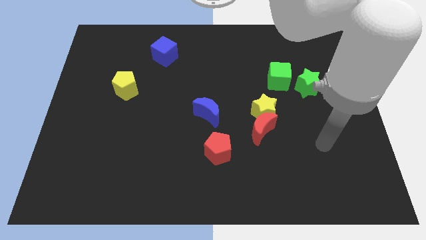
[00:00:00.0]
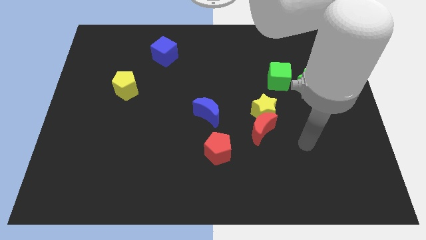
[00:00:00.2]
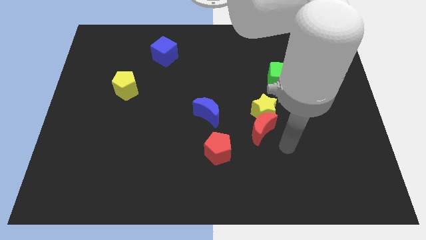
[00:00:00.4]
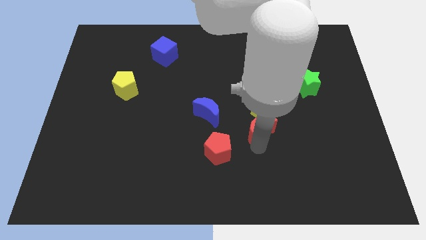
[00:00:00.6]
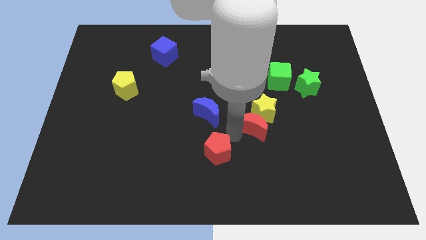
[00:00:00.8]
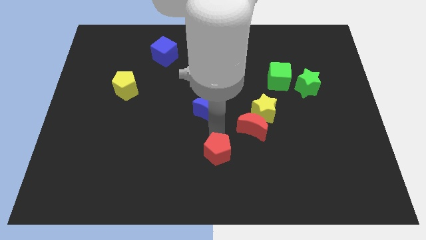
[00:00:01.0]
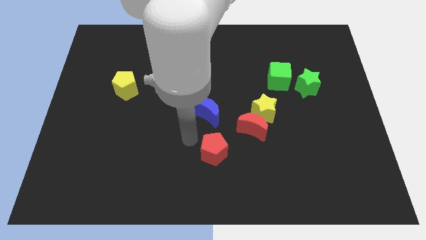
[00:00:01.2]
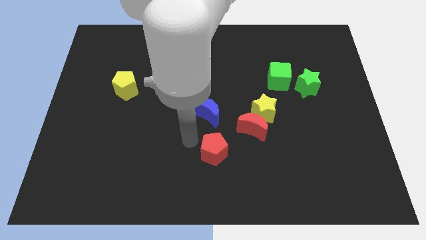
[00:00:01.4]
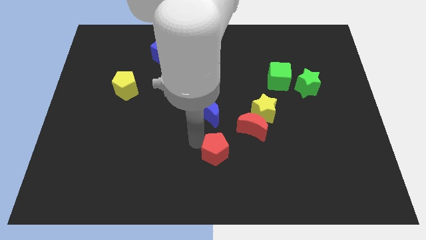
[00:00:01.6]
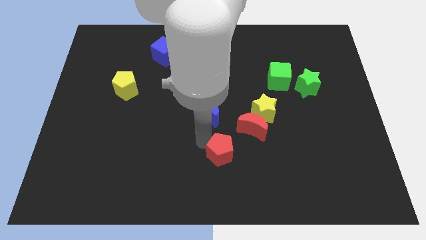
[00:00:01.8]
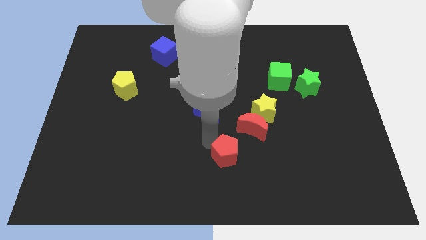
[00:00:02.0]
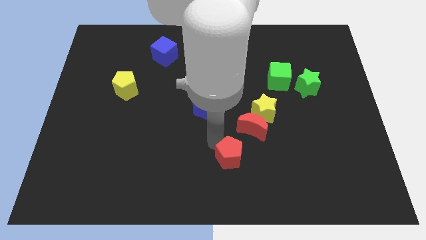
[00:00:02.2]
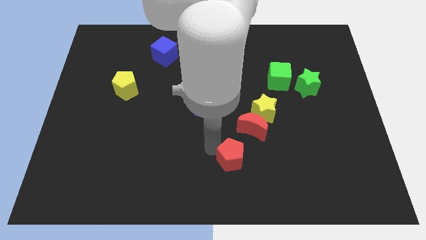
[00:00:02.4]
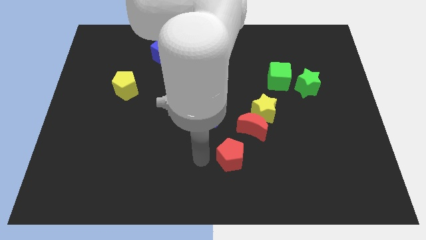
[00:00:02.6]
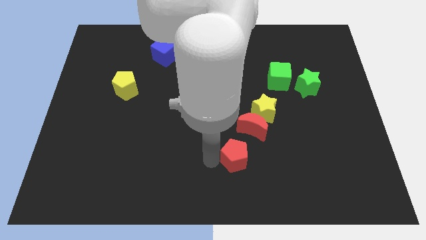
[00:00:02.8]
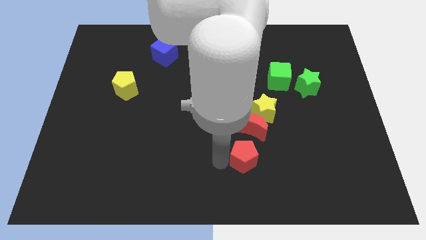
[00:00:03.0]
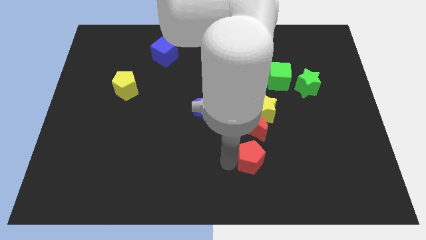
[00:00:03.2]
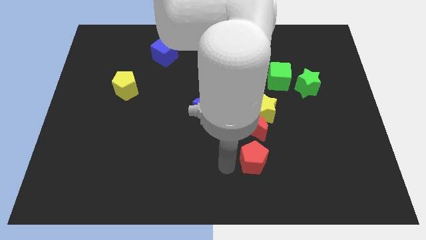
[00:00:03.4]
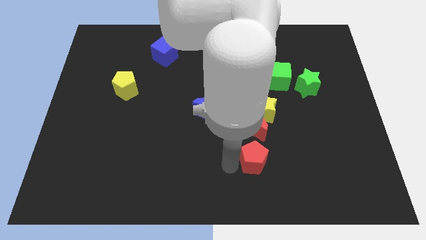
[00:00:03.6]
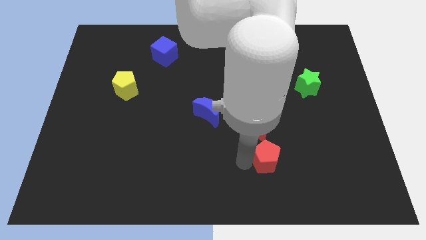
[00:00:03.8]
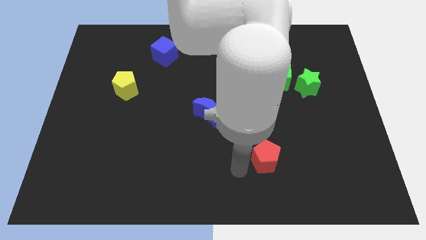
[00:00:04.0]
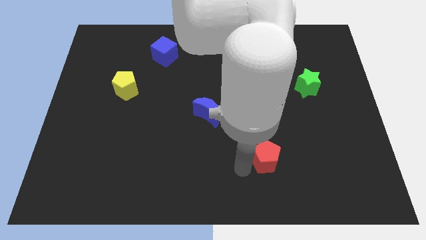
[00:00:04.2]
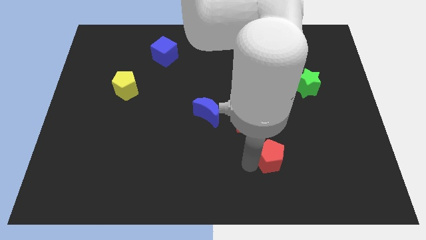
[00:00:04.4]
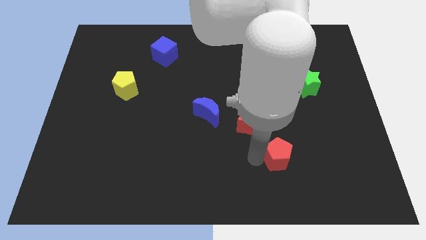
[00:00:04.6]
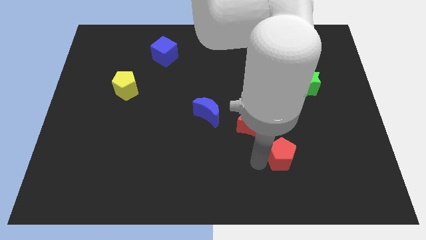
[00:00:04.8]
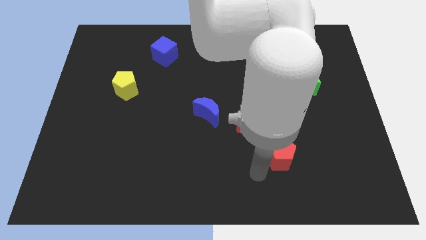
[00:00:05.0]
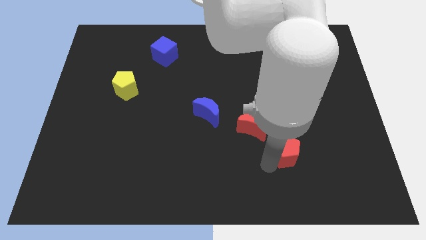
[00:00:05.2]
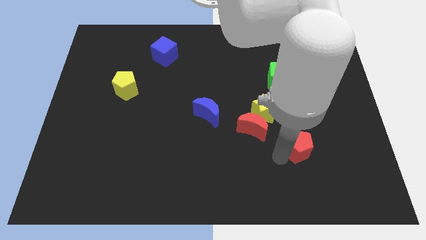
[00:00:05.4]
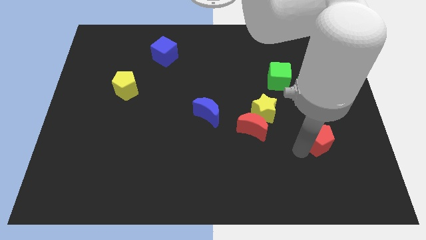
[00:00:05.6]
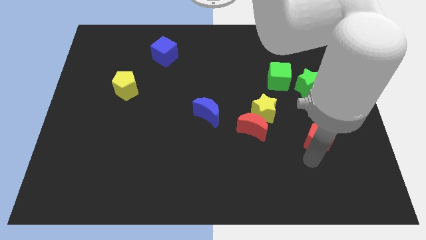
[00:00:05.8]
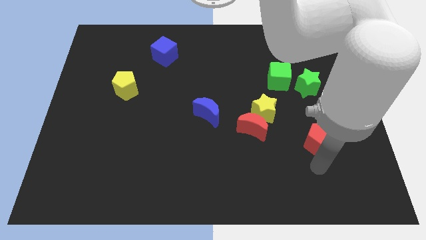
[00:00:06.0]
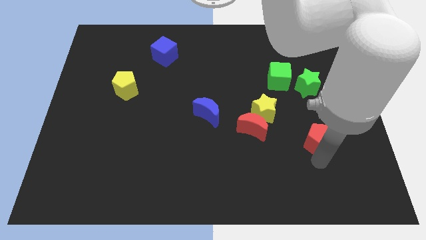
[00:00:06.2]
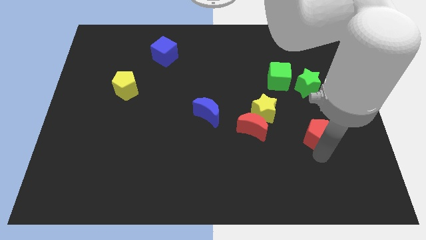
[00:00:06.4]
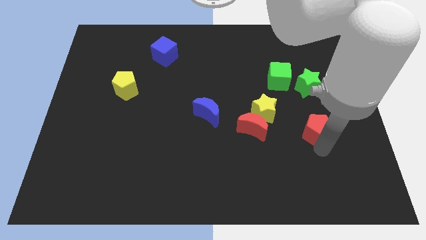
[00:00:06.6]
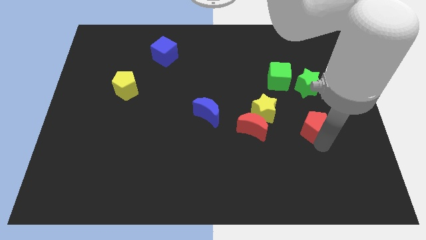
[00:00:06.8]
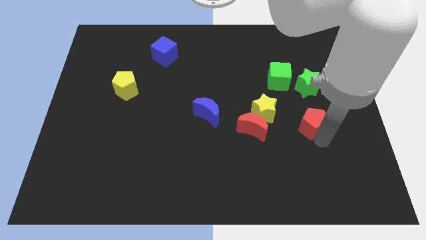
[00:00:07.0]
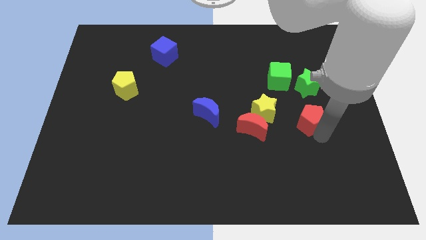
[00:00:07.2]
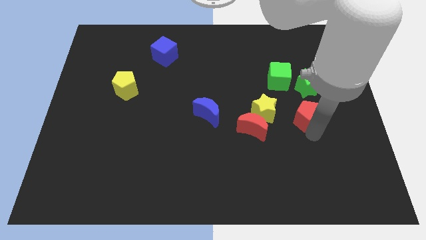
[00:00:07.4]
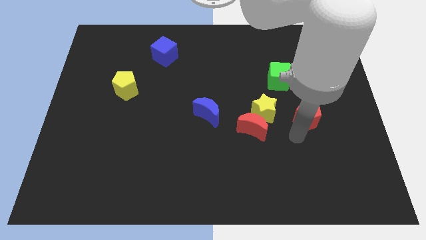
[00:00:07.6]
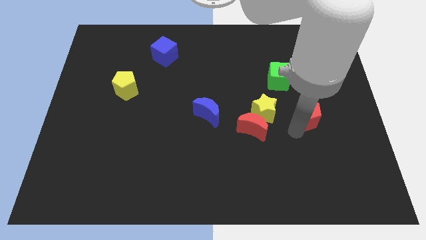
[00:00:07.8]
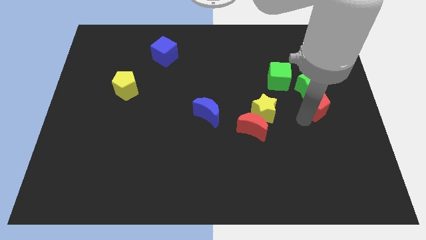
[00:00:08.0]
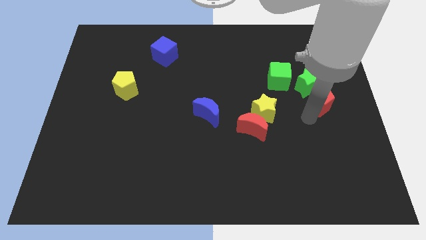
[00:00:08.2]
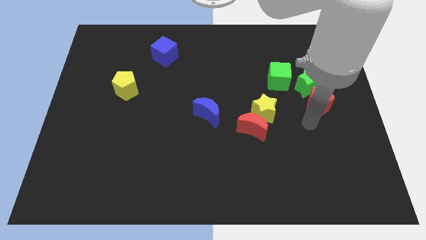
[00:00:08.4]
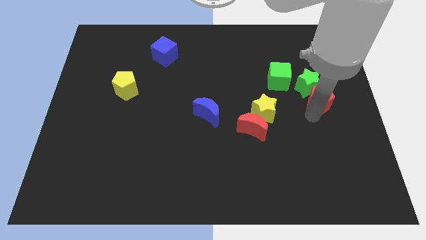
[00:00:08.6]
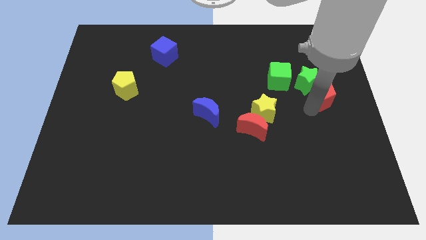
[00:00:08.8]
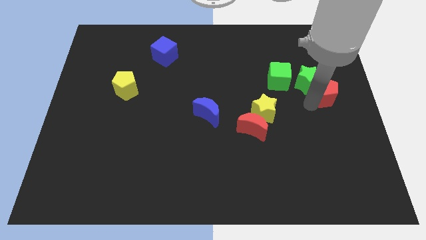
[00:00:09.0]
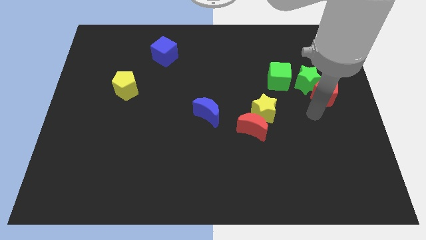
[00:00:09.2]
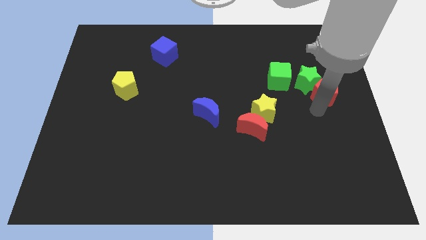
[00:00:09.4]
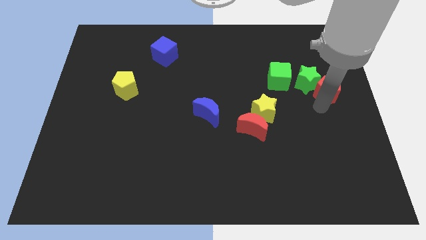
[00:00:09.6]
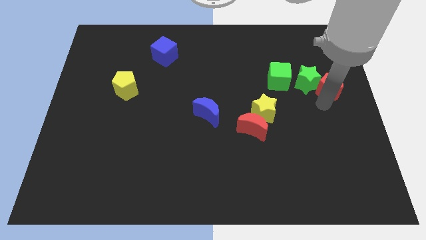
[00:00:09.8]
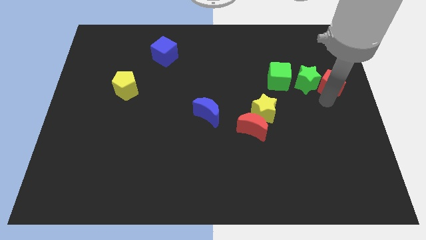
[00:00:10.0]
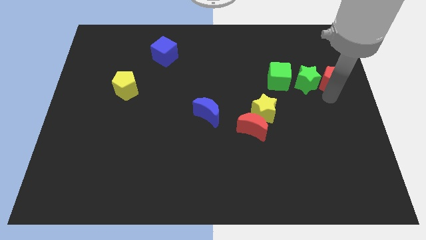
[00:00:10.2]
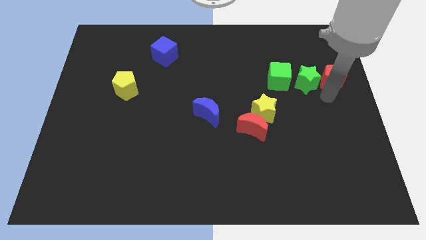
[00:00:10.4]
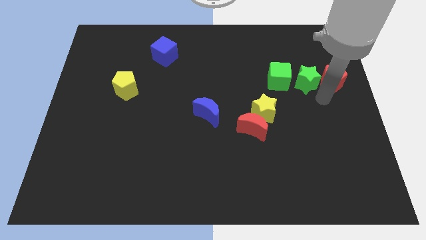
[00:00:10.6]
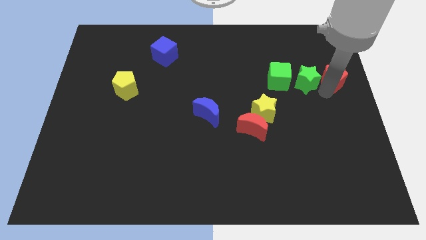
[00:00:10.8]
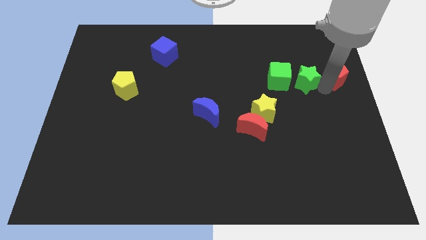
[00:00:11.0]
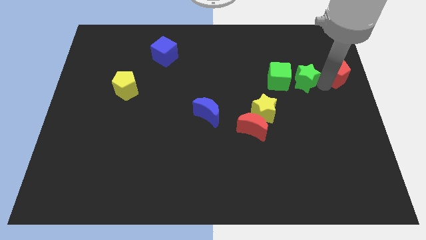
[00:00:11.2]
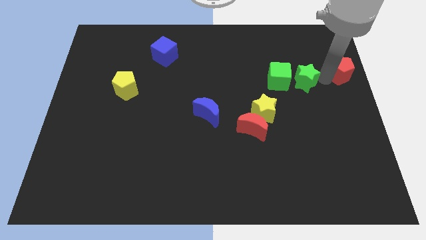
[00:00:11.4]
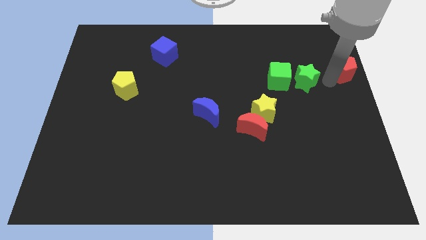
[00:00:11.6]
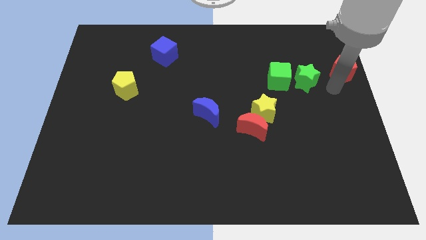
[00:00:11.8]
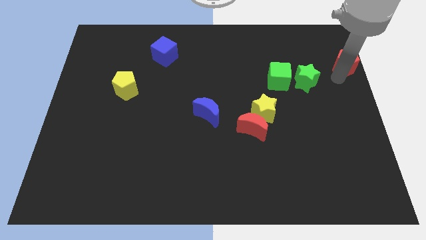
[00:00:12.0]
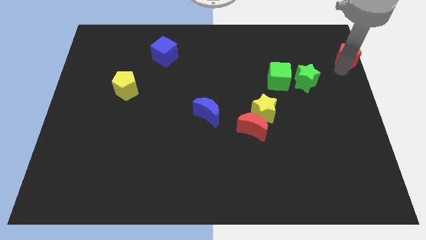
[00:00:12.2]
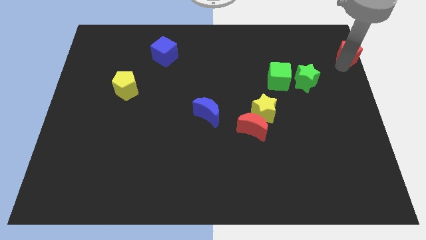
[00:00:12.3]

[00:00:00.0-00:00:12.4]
move the red pentagon to the top right of the board

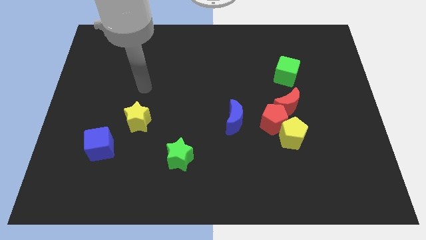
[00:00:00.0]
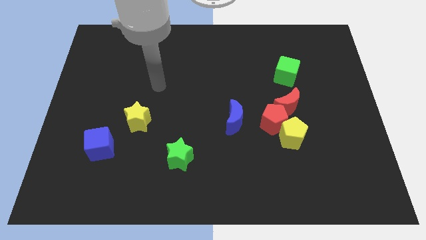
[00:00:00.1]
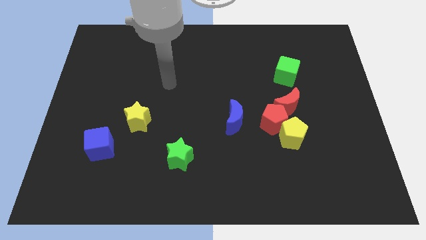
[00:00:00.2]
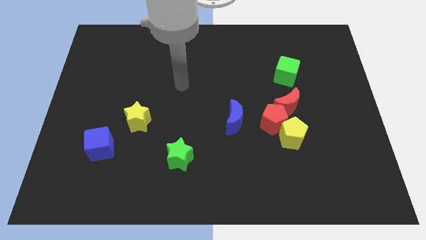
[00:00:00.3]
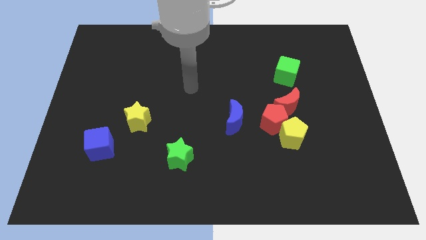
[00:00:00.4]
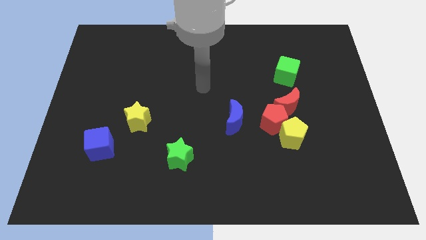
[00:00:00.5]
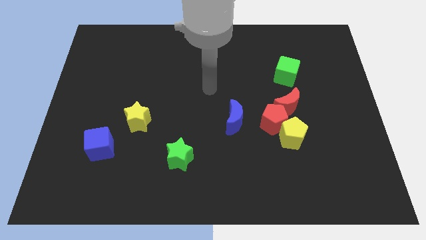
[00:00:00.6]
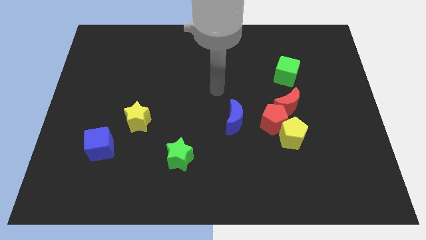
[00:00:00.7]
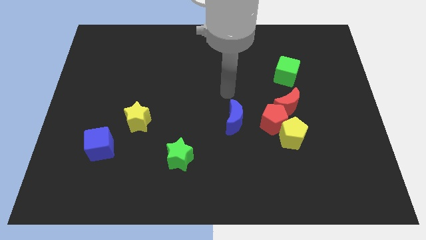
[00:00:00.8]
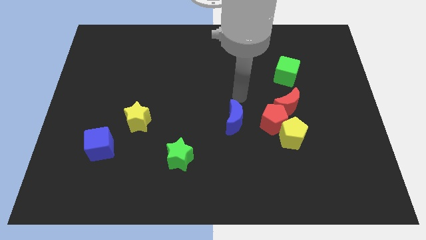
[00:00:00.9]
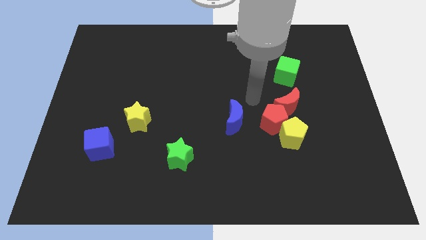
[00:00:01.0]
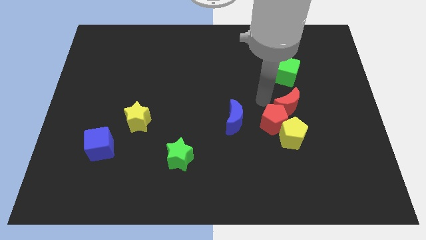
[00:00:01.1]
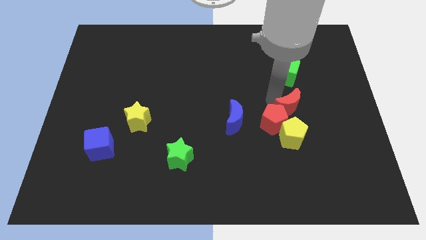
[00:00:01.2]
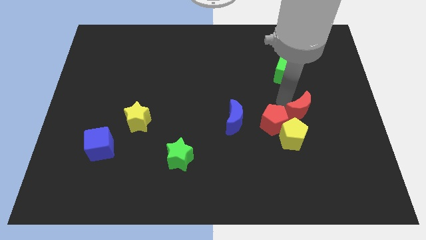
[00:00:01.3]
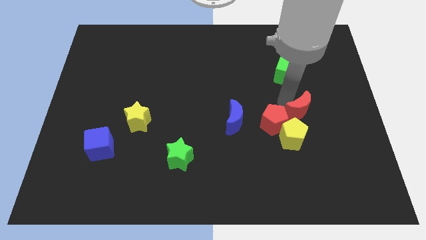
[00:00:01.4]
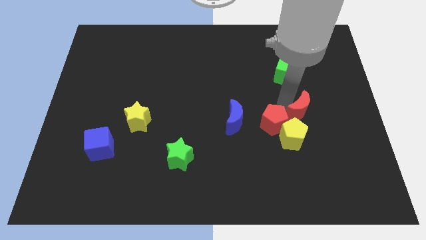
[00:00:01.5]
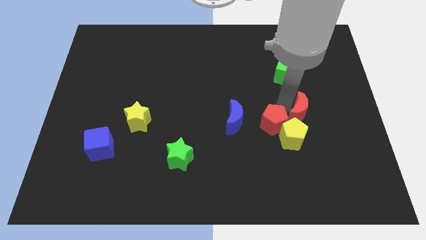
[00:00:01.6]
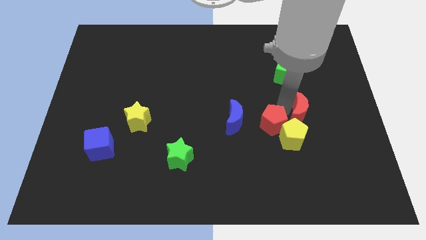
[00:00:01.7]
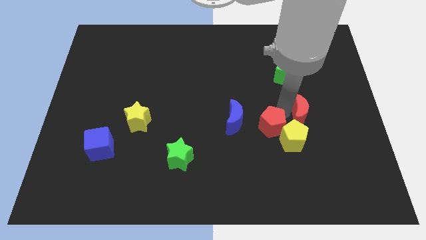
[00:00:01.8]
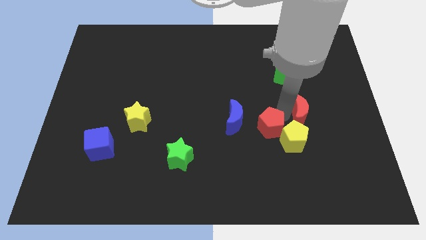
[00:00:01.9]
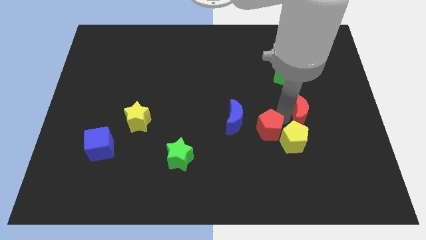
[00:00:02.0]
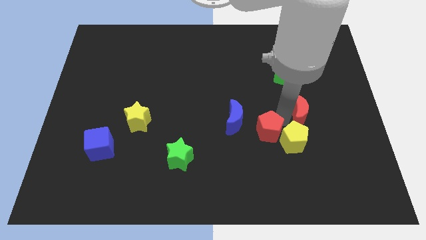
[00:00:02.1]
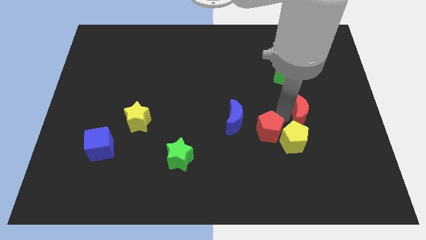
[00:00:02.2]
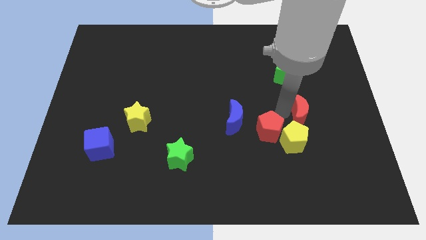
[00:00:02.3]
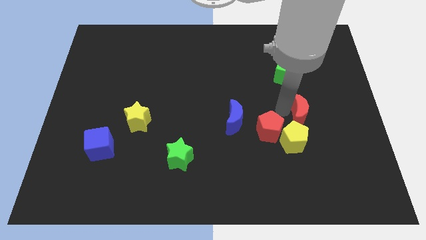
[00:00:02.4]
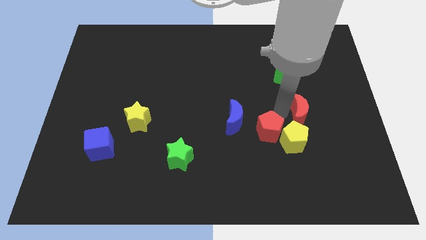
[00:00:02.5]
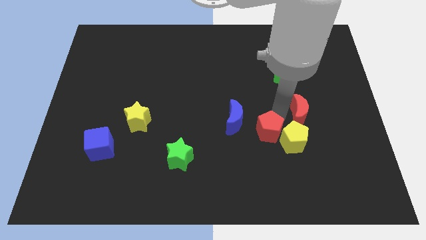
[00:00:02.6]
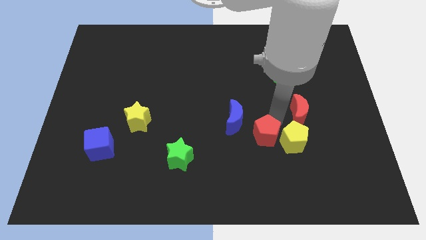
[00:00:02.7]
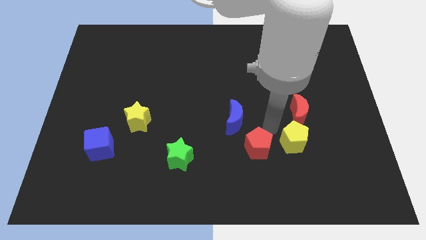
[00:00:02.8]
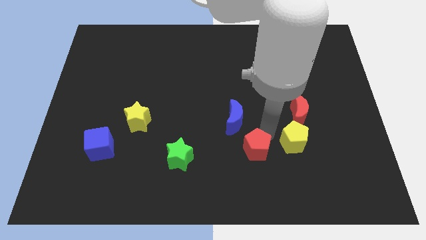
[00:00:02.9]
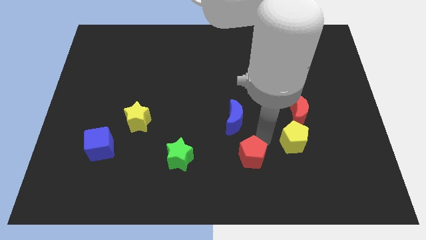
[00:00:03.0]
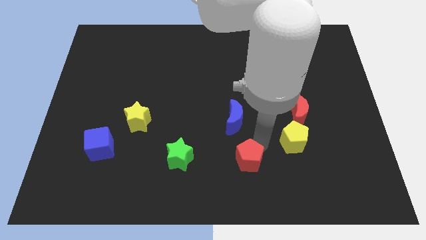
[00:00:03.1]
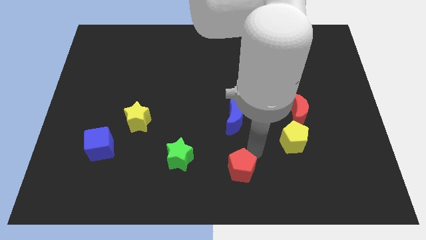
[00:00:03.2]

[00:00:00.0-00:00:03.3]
push the red pentagon to the bottom
